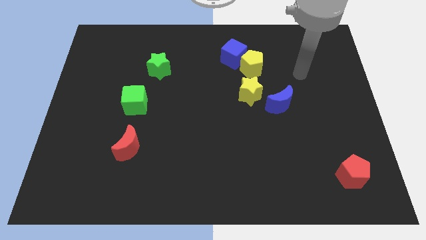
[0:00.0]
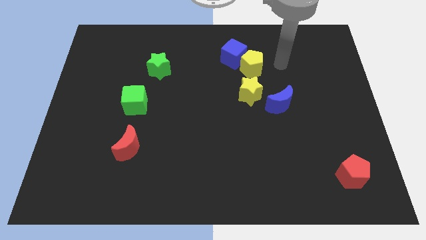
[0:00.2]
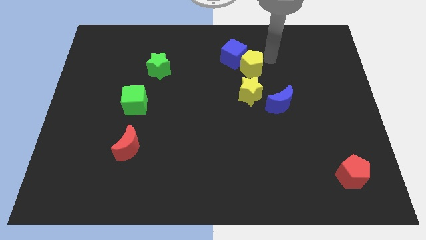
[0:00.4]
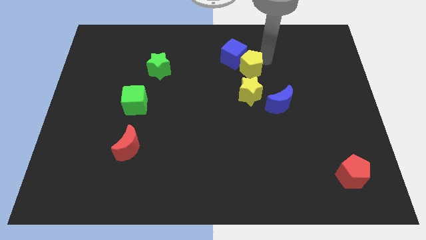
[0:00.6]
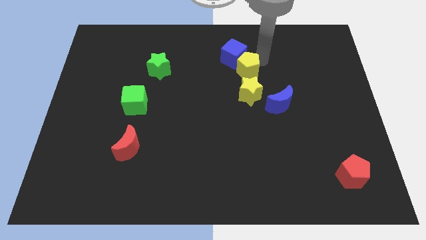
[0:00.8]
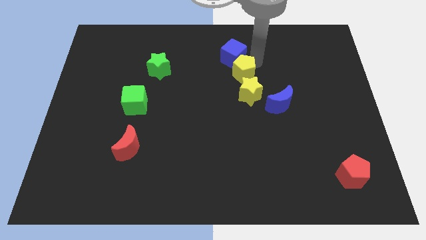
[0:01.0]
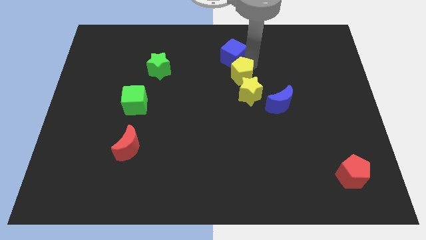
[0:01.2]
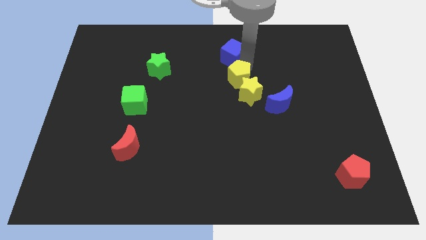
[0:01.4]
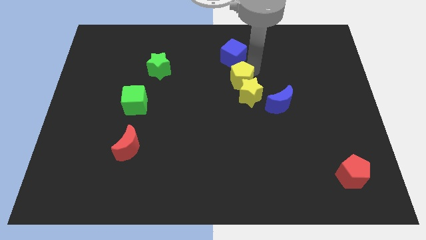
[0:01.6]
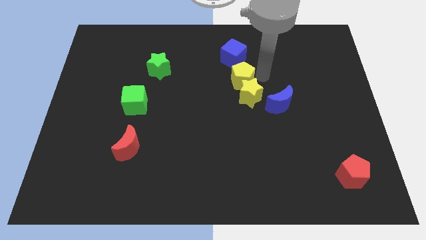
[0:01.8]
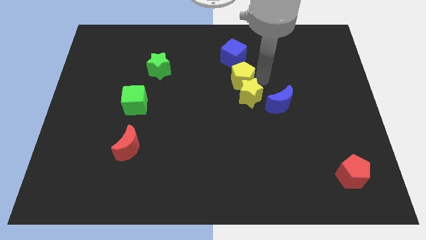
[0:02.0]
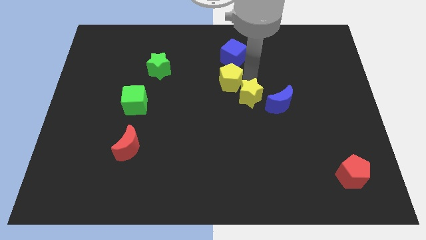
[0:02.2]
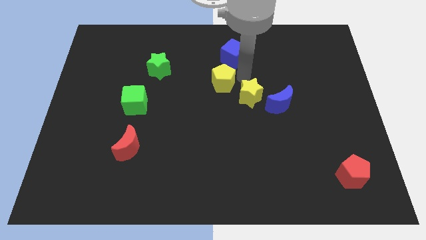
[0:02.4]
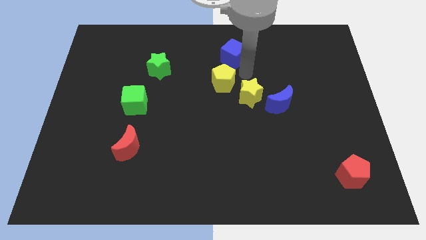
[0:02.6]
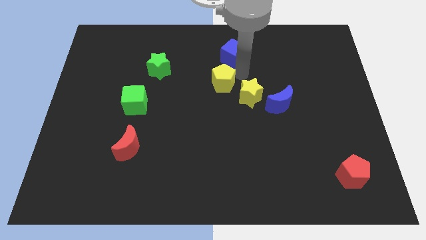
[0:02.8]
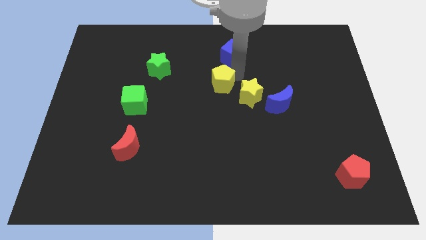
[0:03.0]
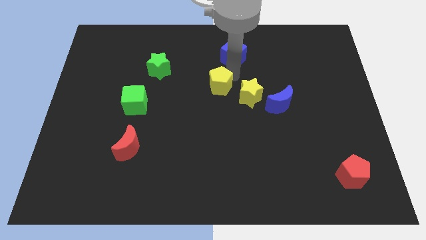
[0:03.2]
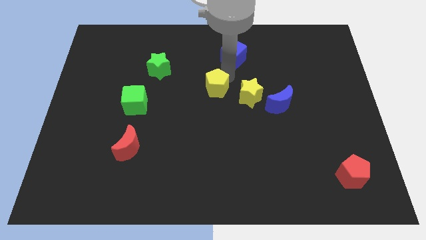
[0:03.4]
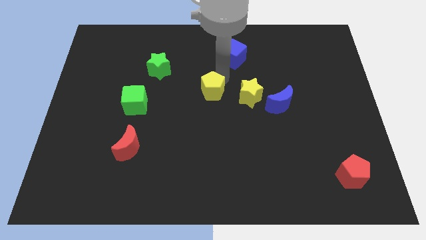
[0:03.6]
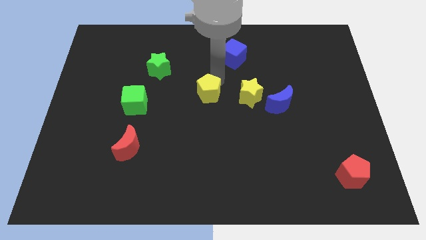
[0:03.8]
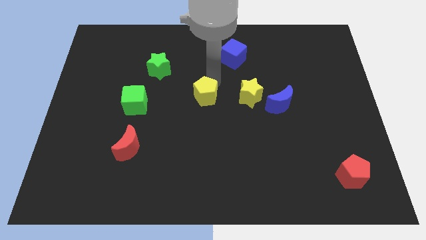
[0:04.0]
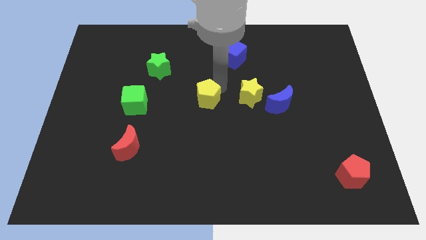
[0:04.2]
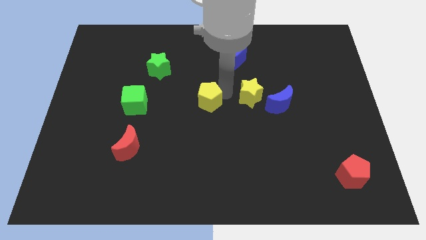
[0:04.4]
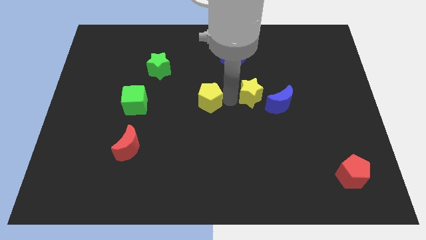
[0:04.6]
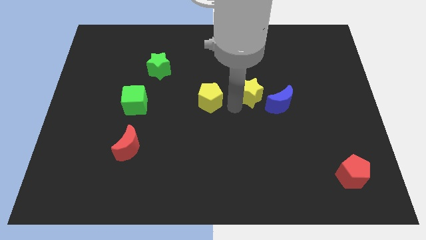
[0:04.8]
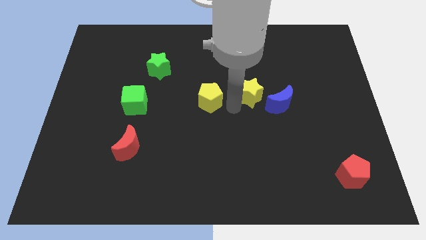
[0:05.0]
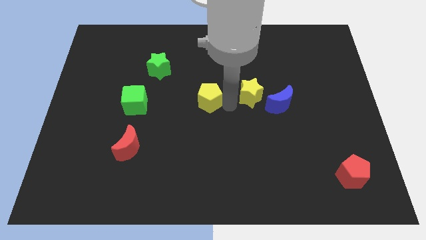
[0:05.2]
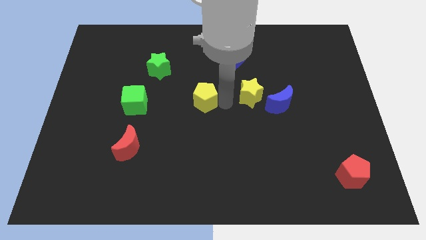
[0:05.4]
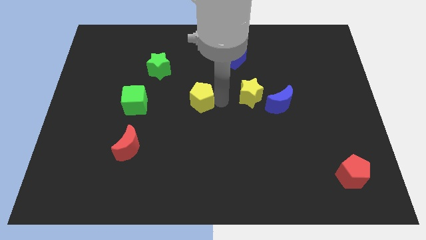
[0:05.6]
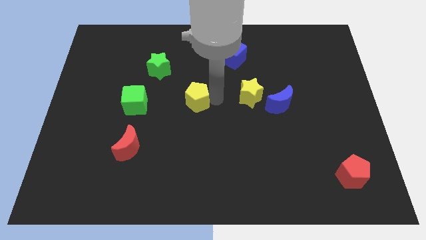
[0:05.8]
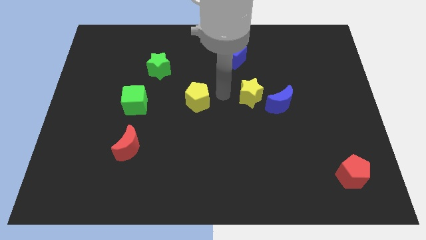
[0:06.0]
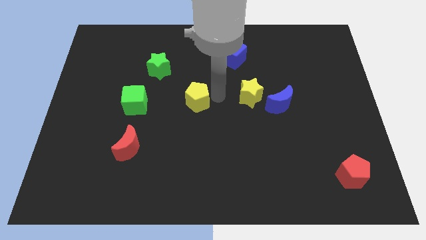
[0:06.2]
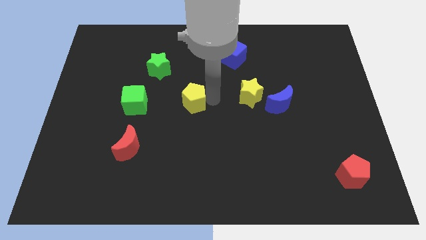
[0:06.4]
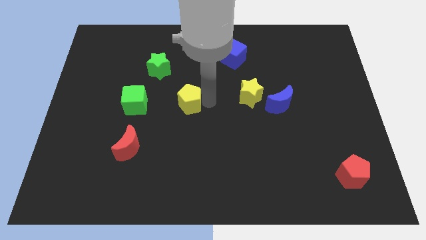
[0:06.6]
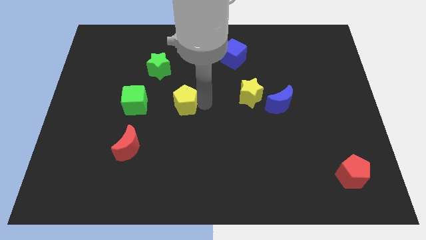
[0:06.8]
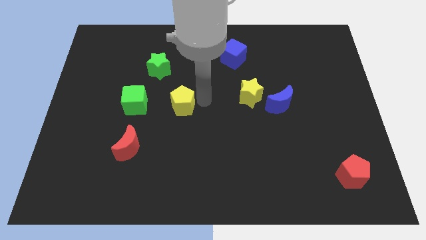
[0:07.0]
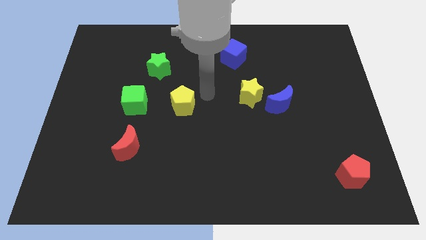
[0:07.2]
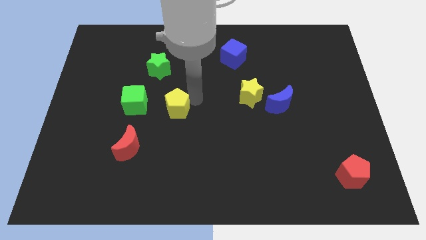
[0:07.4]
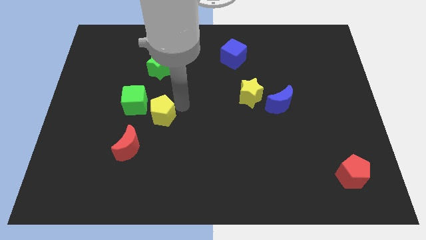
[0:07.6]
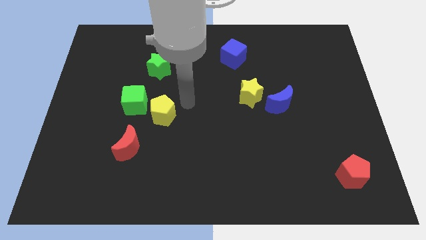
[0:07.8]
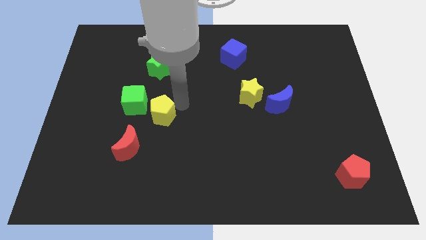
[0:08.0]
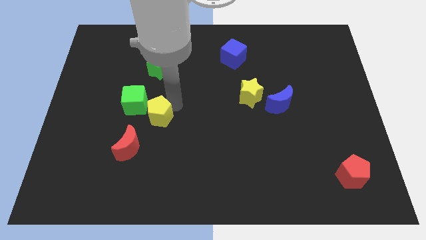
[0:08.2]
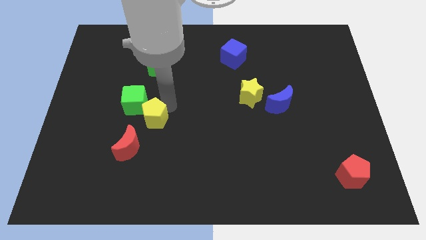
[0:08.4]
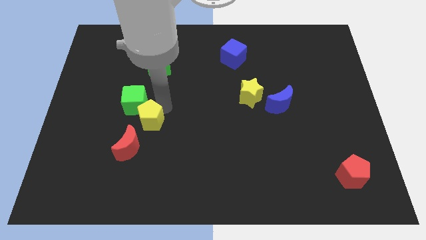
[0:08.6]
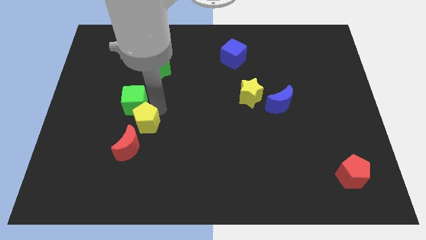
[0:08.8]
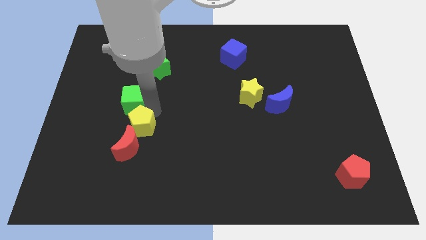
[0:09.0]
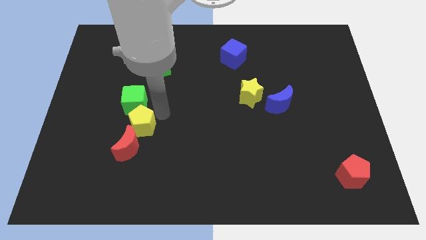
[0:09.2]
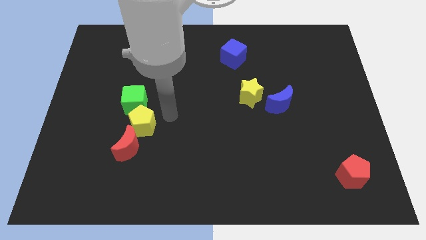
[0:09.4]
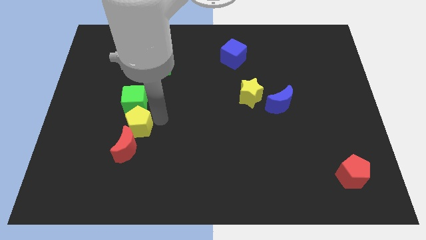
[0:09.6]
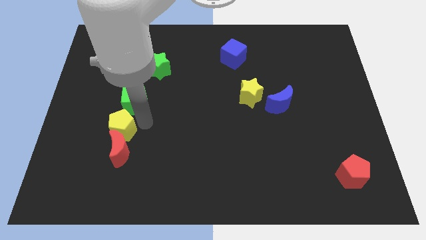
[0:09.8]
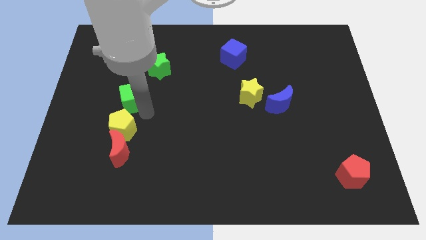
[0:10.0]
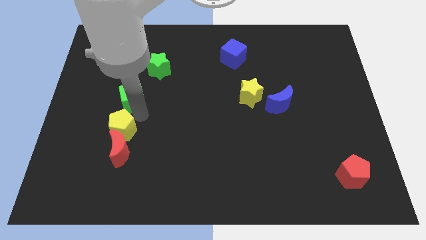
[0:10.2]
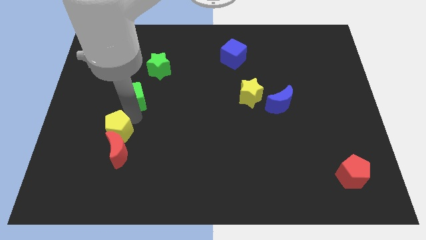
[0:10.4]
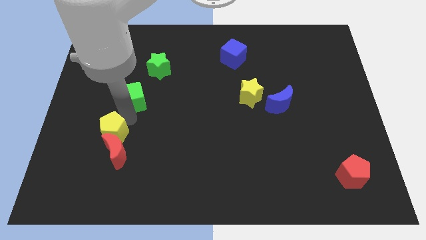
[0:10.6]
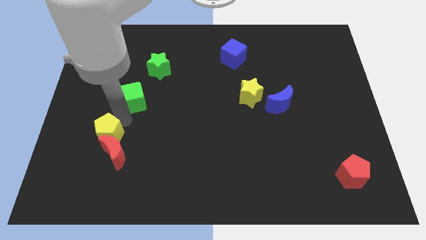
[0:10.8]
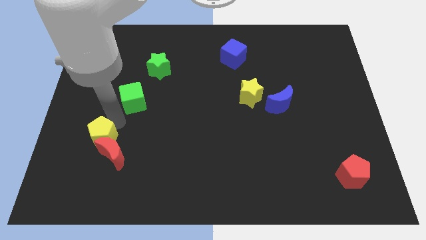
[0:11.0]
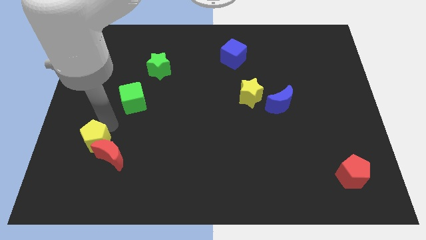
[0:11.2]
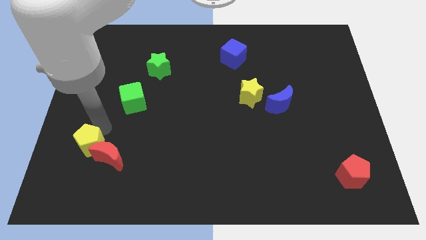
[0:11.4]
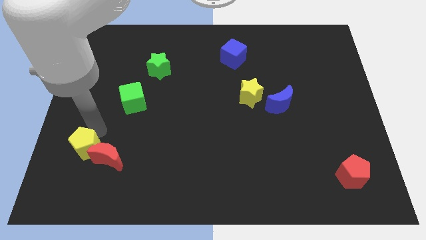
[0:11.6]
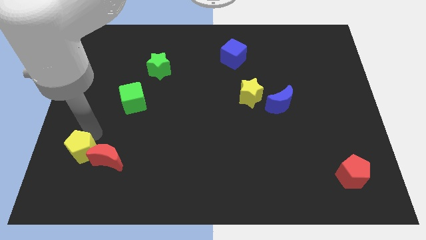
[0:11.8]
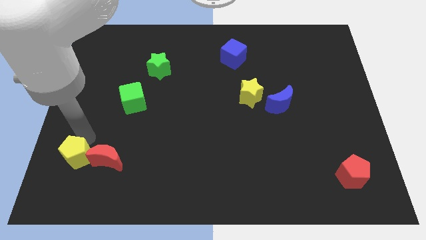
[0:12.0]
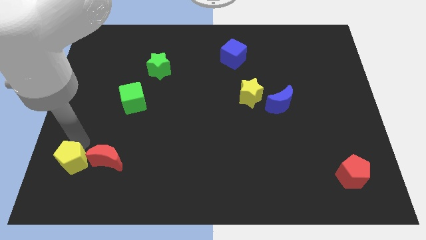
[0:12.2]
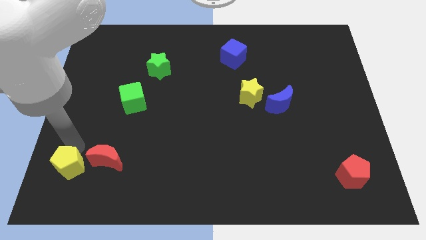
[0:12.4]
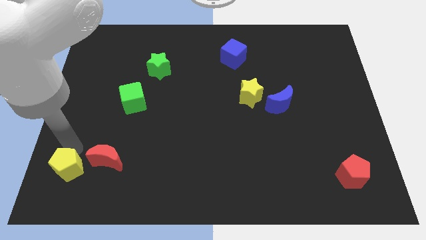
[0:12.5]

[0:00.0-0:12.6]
put the yellow pentagon to the bottom left corner
